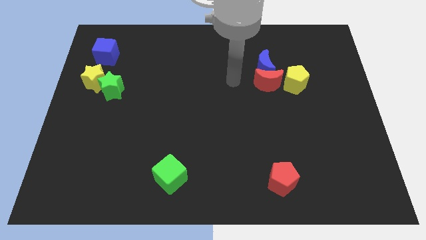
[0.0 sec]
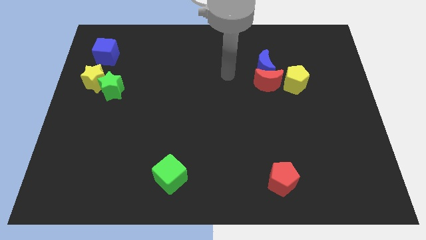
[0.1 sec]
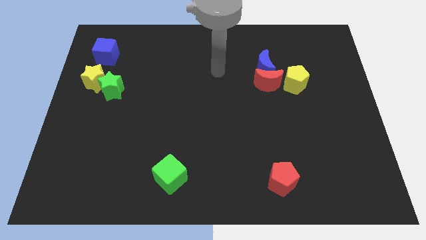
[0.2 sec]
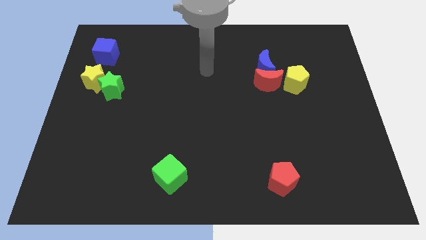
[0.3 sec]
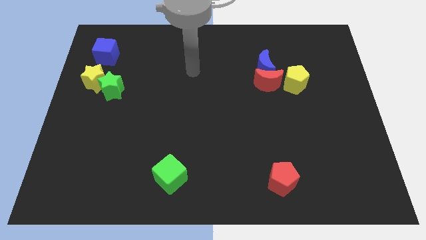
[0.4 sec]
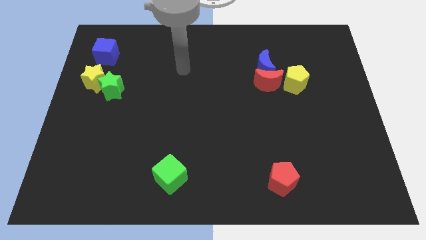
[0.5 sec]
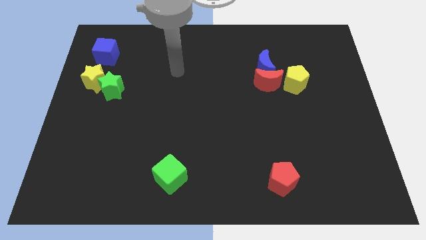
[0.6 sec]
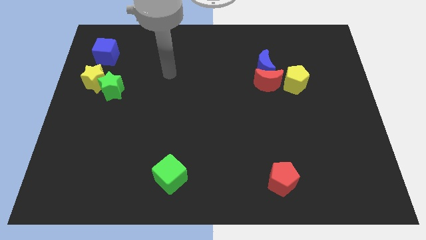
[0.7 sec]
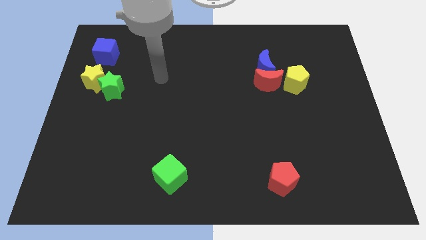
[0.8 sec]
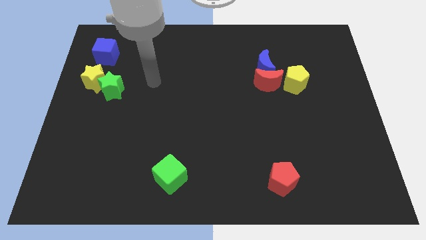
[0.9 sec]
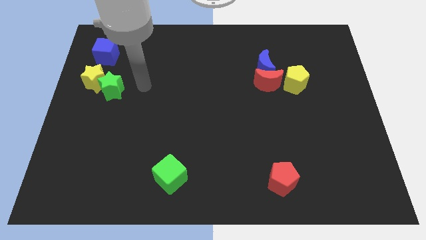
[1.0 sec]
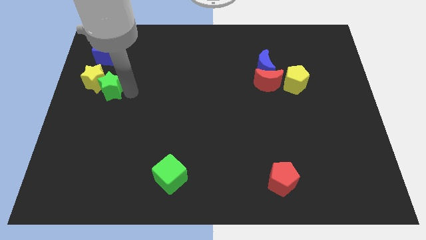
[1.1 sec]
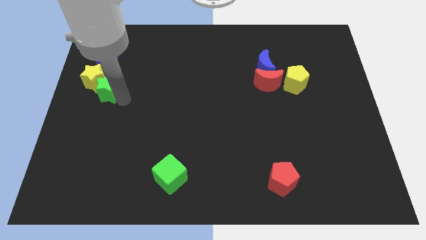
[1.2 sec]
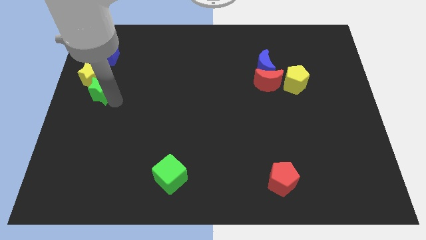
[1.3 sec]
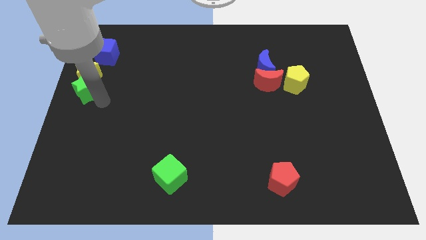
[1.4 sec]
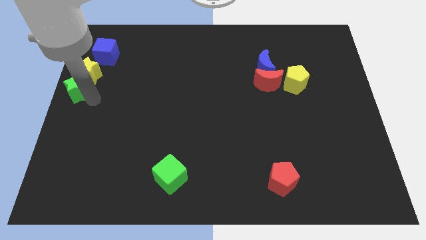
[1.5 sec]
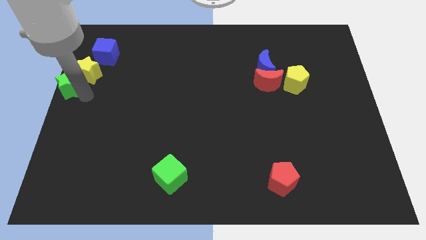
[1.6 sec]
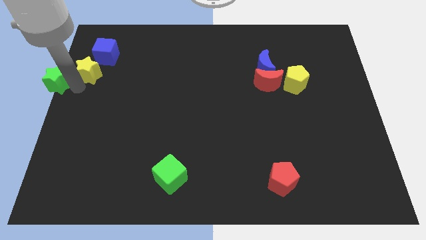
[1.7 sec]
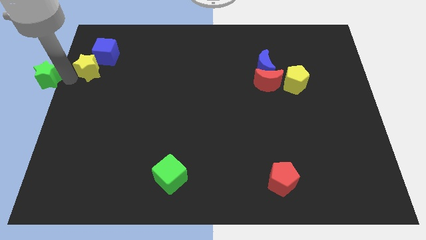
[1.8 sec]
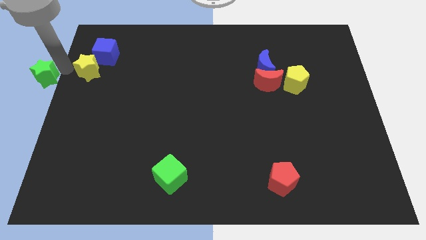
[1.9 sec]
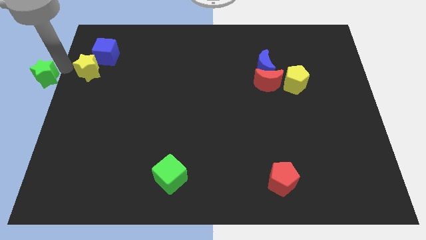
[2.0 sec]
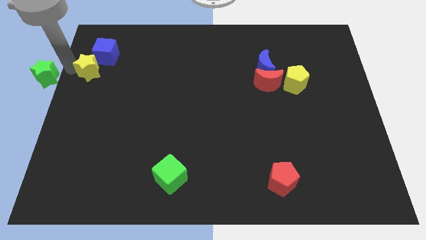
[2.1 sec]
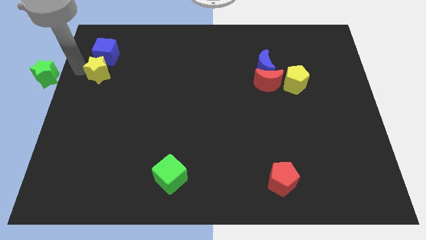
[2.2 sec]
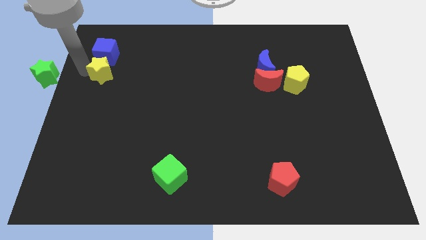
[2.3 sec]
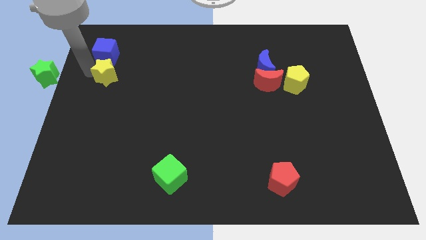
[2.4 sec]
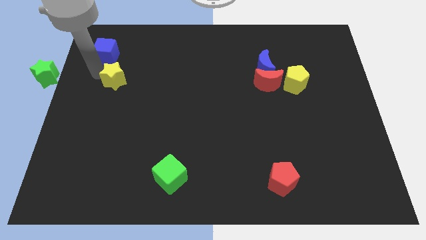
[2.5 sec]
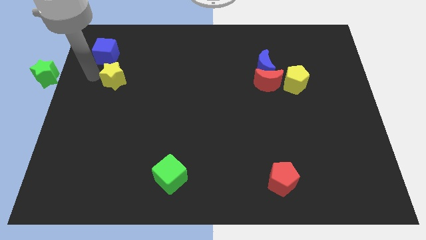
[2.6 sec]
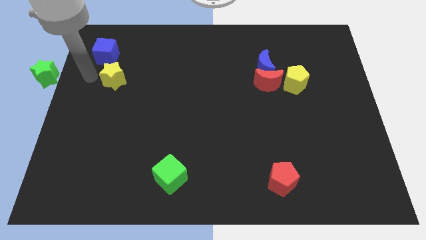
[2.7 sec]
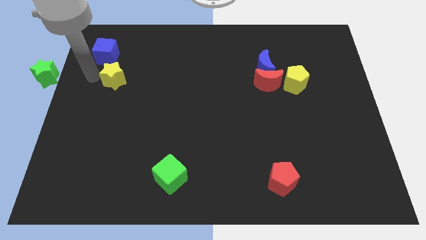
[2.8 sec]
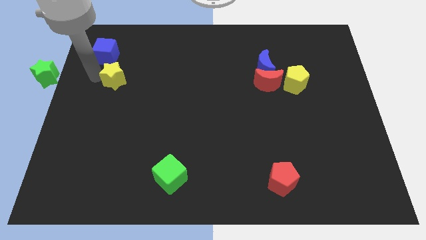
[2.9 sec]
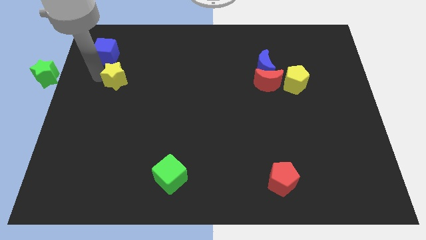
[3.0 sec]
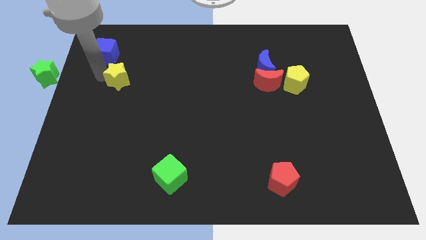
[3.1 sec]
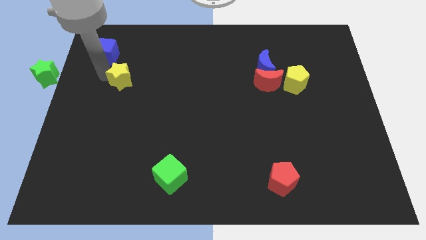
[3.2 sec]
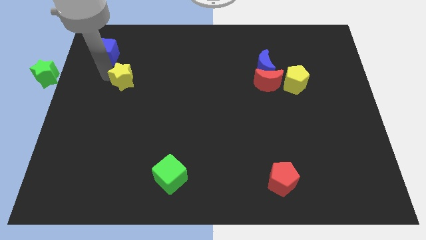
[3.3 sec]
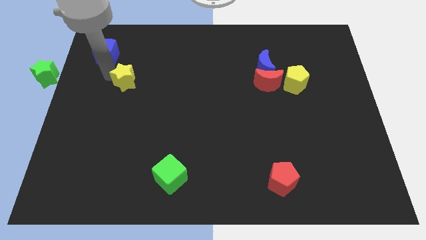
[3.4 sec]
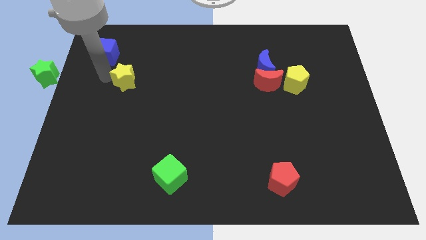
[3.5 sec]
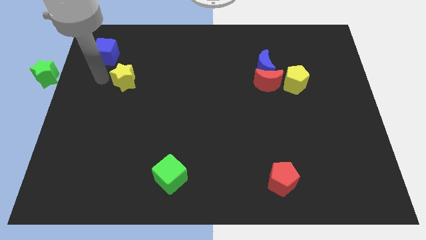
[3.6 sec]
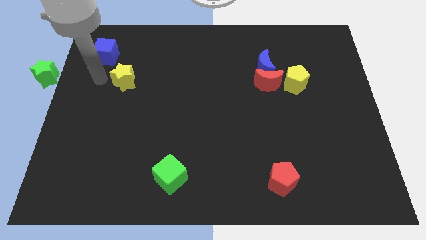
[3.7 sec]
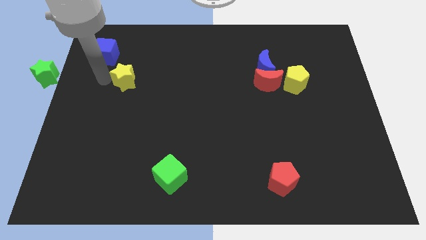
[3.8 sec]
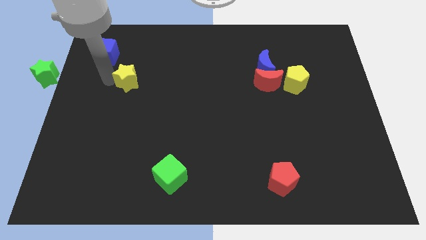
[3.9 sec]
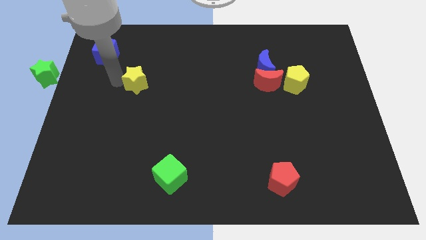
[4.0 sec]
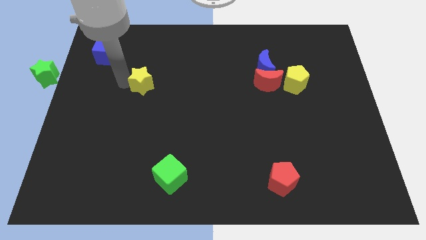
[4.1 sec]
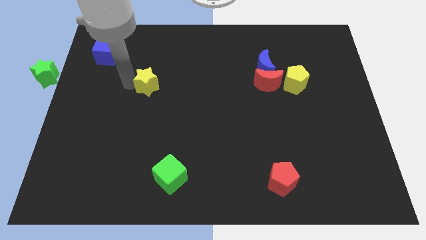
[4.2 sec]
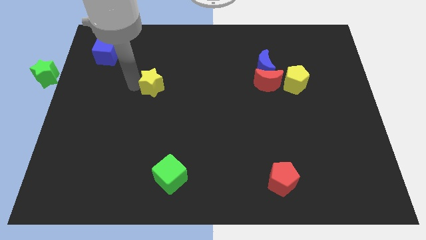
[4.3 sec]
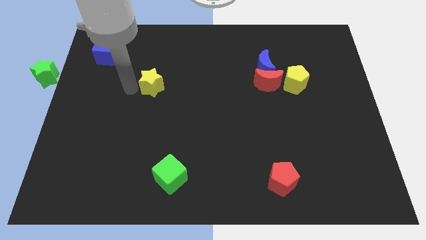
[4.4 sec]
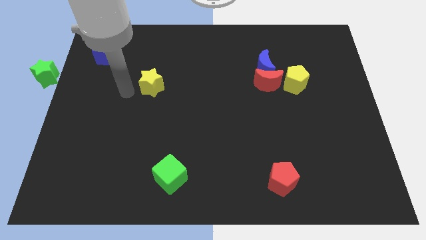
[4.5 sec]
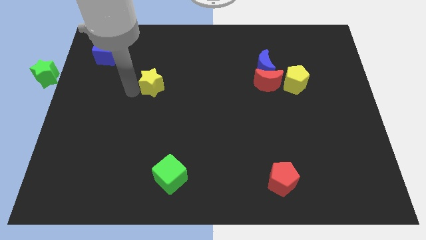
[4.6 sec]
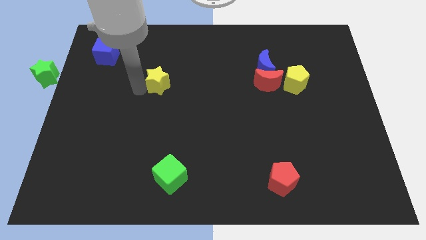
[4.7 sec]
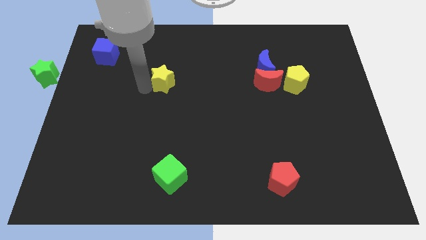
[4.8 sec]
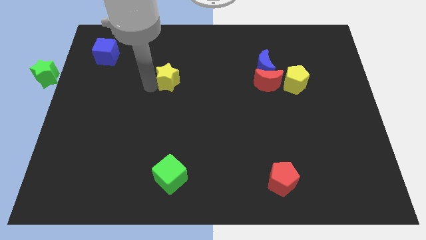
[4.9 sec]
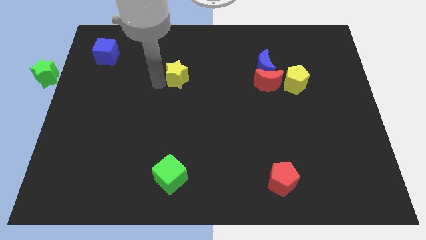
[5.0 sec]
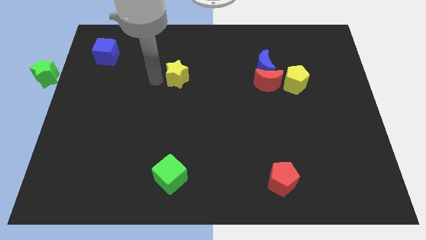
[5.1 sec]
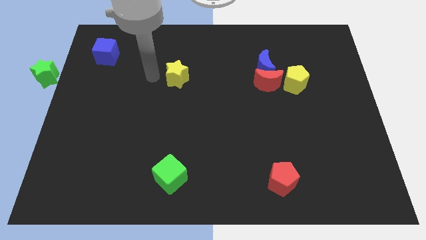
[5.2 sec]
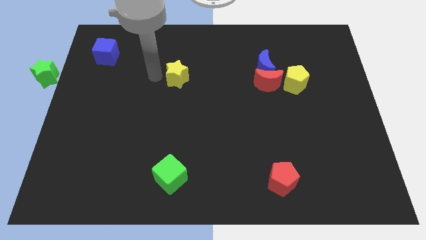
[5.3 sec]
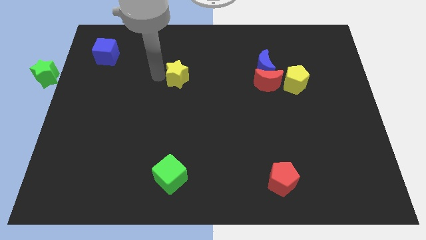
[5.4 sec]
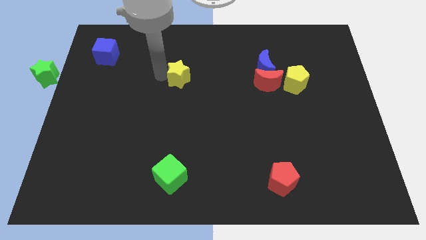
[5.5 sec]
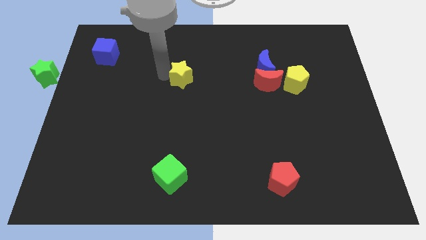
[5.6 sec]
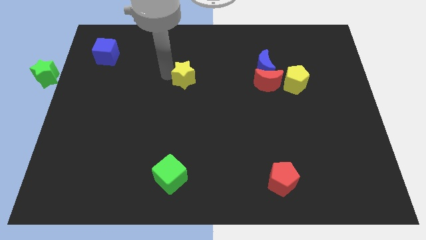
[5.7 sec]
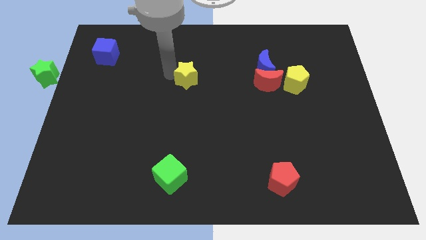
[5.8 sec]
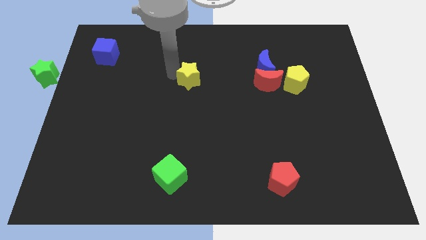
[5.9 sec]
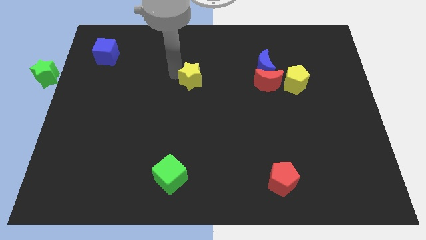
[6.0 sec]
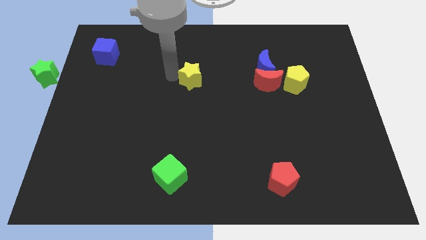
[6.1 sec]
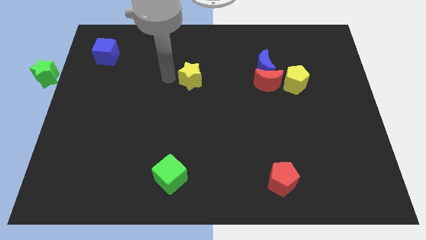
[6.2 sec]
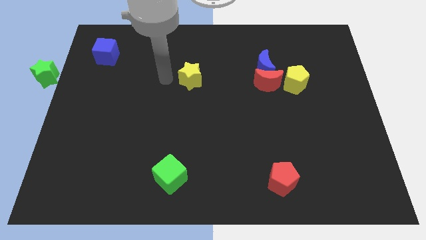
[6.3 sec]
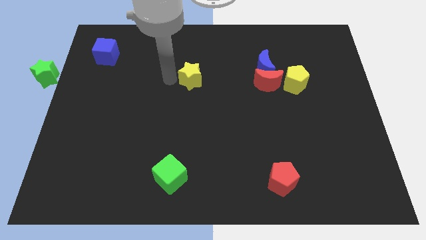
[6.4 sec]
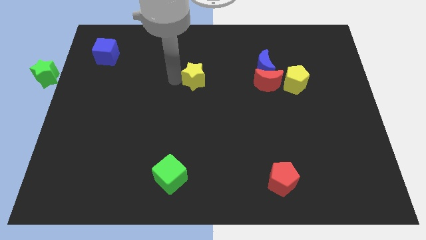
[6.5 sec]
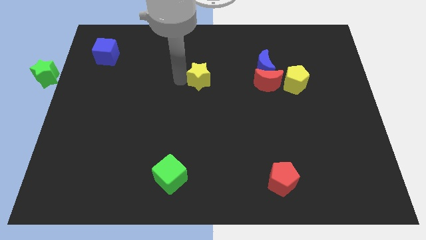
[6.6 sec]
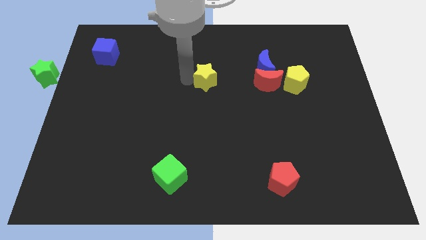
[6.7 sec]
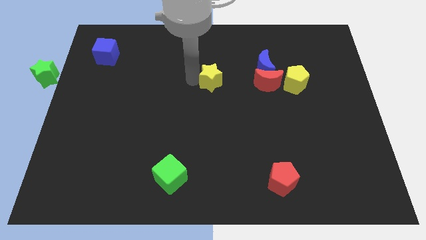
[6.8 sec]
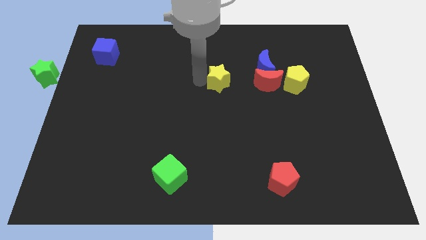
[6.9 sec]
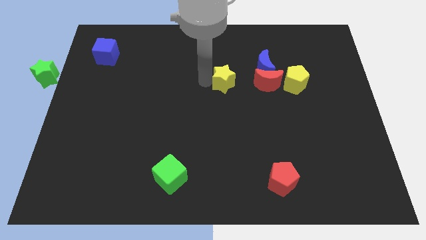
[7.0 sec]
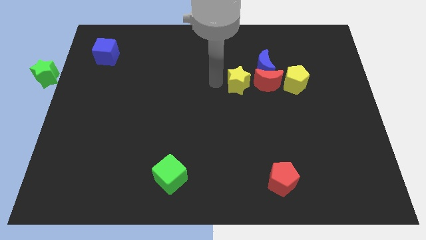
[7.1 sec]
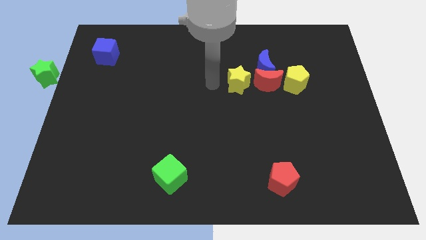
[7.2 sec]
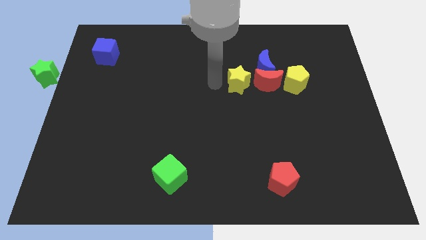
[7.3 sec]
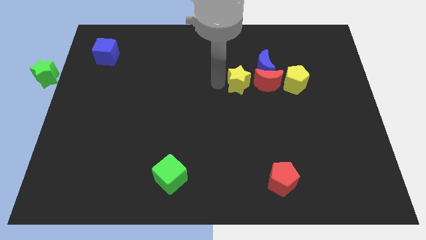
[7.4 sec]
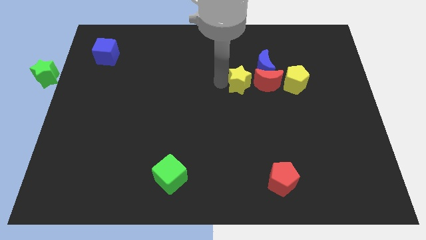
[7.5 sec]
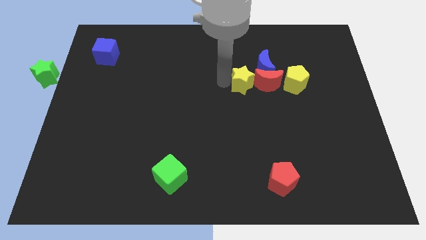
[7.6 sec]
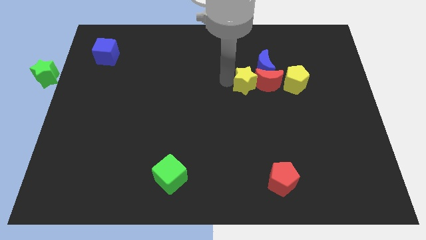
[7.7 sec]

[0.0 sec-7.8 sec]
slide the yellow star towards the red moon
